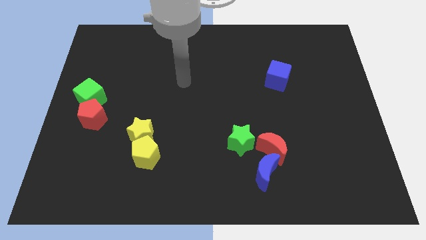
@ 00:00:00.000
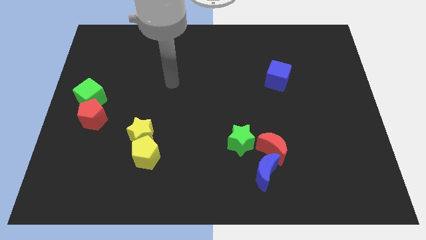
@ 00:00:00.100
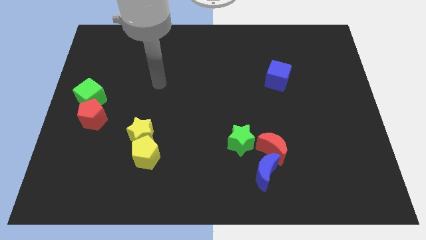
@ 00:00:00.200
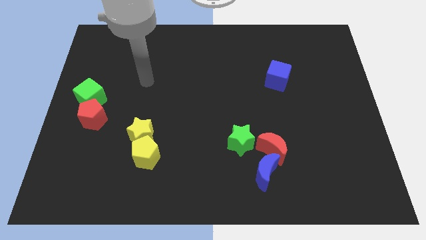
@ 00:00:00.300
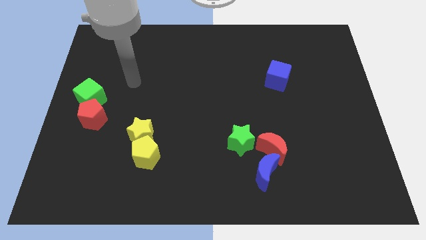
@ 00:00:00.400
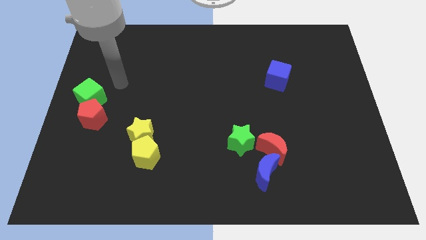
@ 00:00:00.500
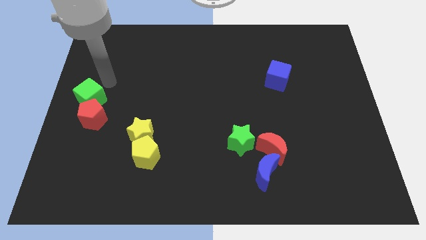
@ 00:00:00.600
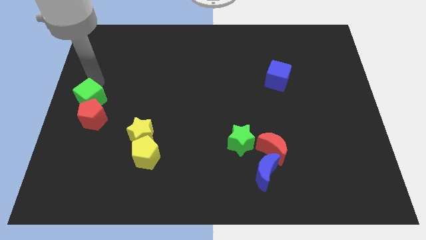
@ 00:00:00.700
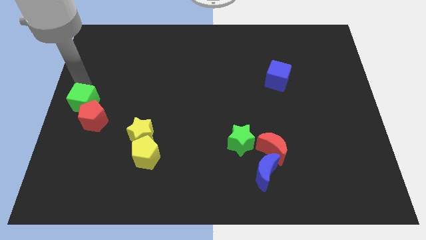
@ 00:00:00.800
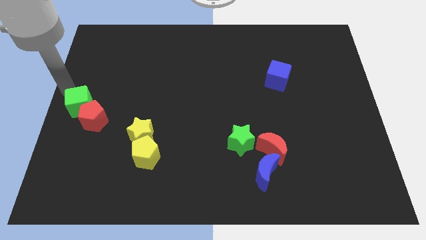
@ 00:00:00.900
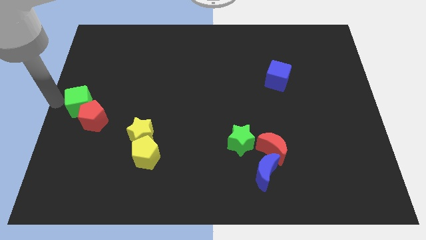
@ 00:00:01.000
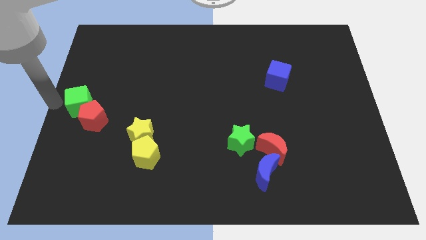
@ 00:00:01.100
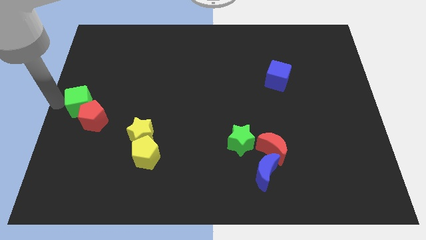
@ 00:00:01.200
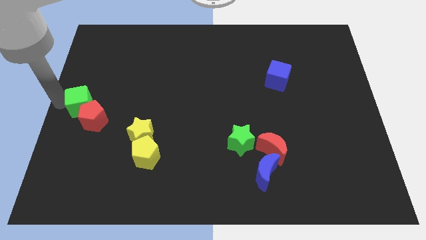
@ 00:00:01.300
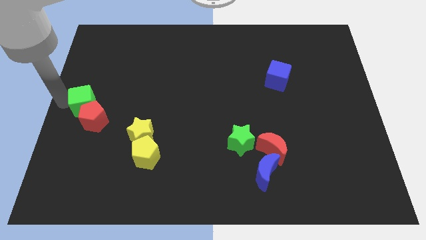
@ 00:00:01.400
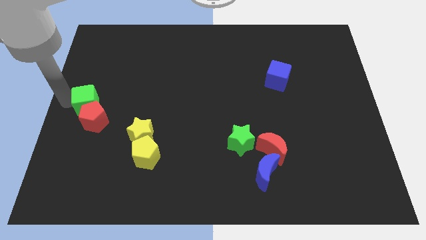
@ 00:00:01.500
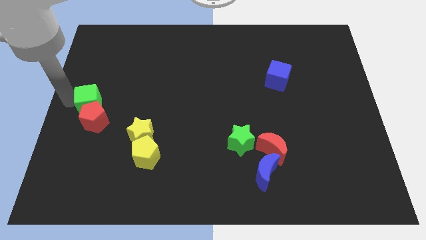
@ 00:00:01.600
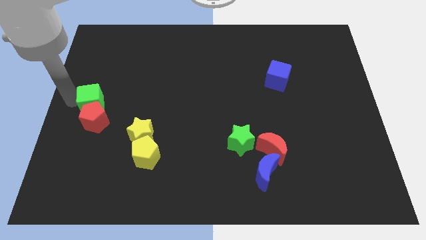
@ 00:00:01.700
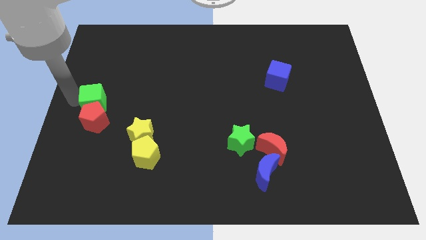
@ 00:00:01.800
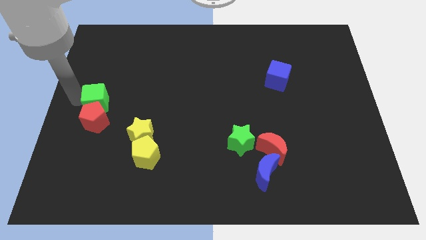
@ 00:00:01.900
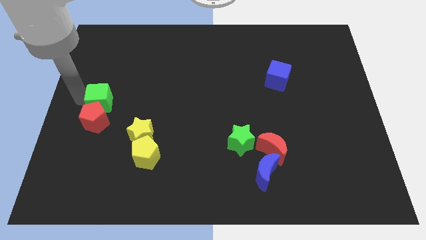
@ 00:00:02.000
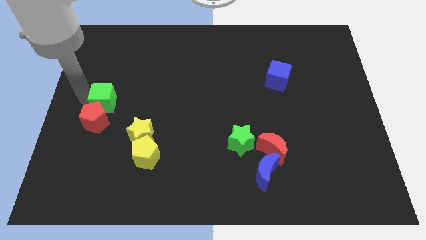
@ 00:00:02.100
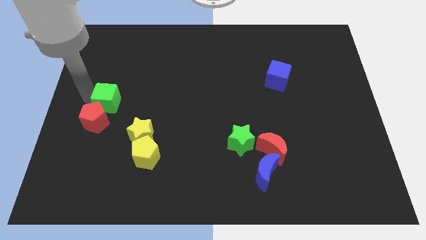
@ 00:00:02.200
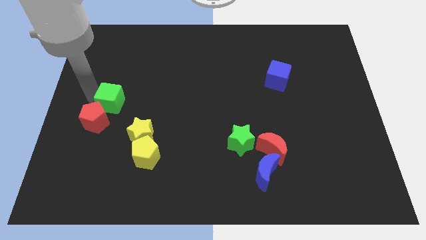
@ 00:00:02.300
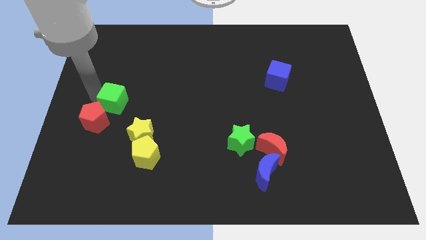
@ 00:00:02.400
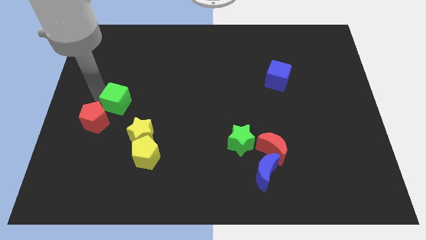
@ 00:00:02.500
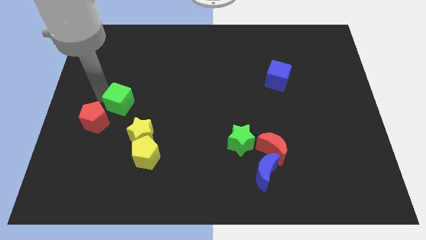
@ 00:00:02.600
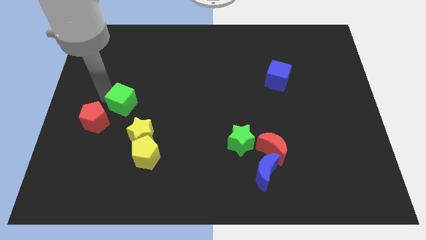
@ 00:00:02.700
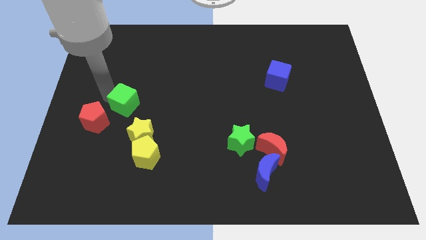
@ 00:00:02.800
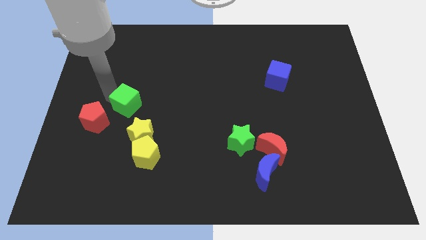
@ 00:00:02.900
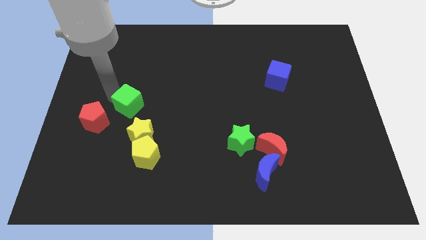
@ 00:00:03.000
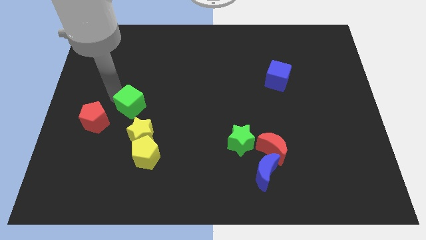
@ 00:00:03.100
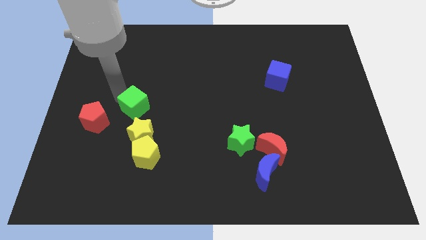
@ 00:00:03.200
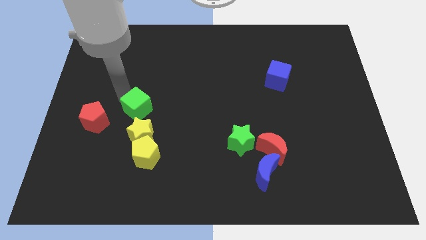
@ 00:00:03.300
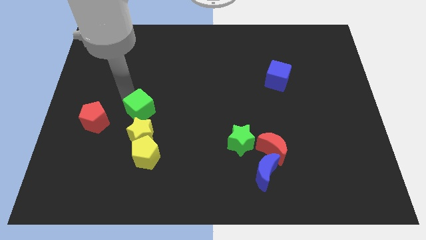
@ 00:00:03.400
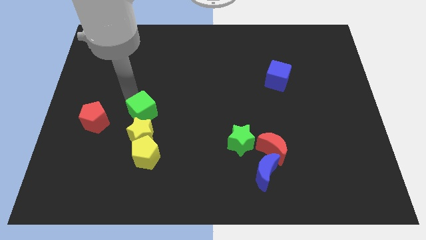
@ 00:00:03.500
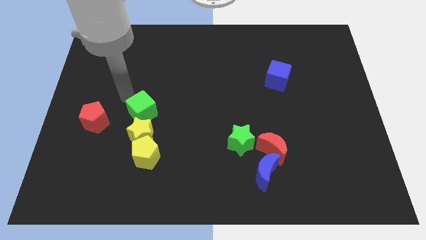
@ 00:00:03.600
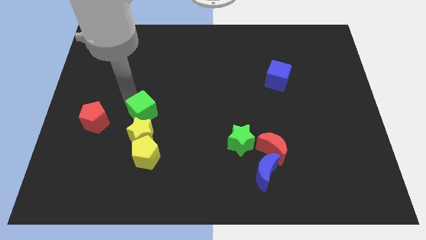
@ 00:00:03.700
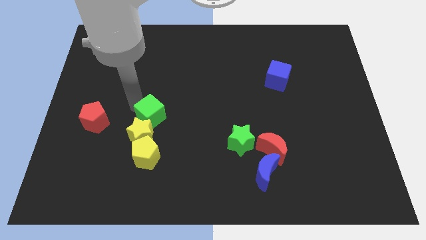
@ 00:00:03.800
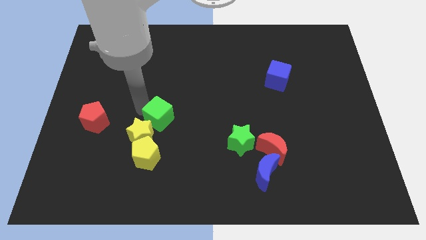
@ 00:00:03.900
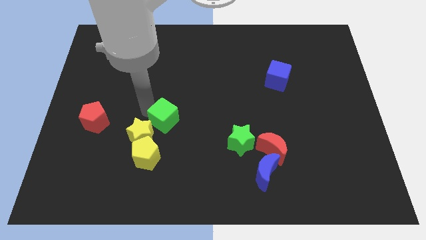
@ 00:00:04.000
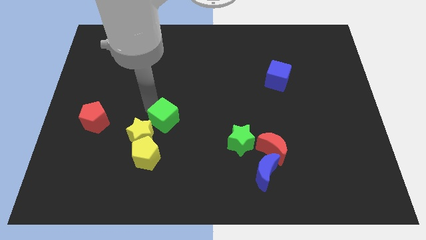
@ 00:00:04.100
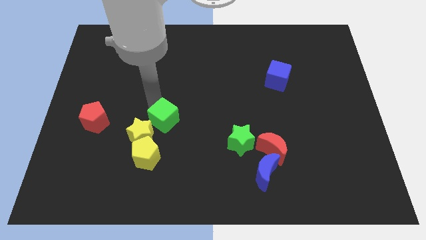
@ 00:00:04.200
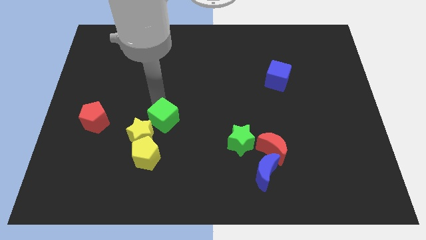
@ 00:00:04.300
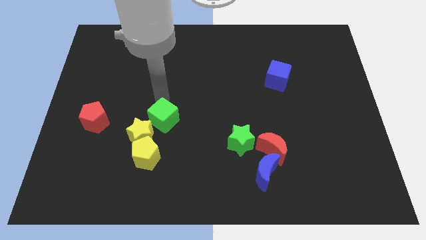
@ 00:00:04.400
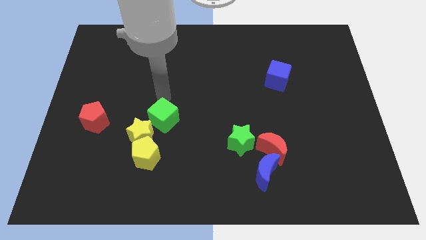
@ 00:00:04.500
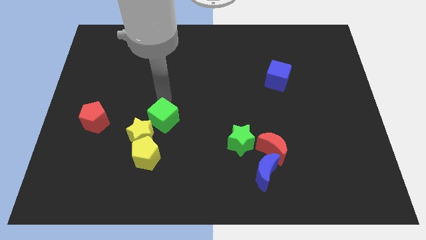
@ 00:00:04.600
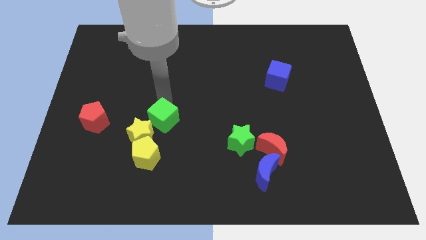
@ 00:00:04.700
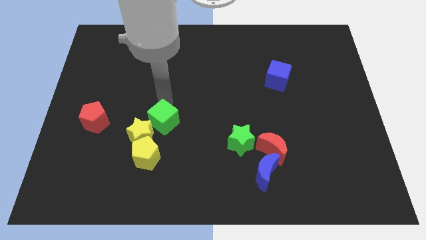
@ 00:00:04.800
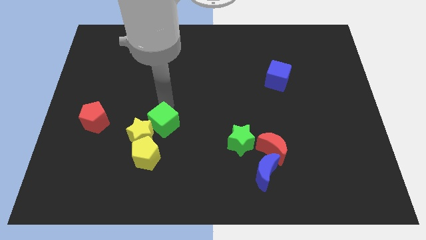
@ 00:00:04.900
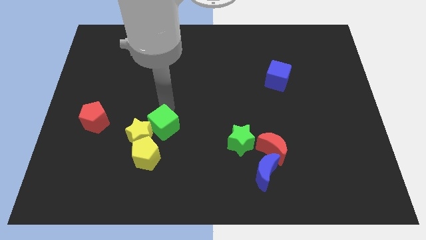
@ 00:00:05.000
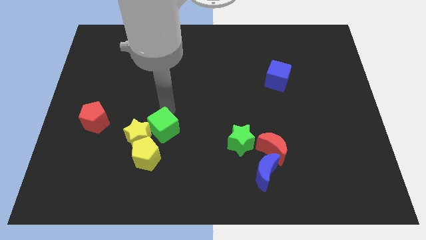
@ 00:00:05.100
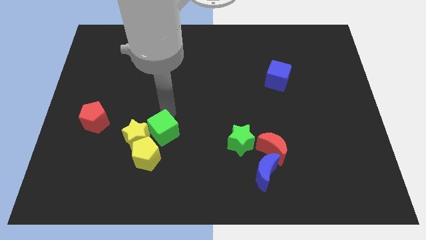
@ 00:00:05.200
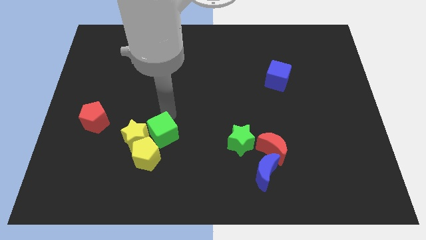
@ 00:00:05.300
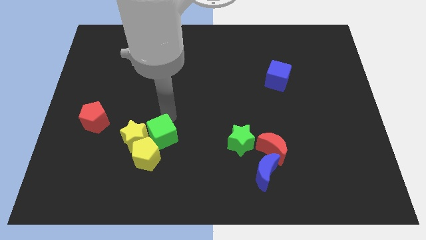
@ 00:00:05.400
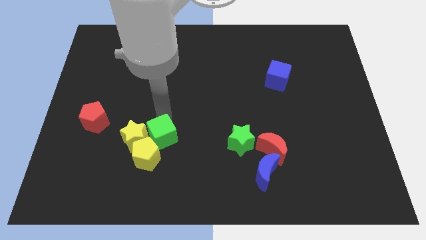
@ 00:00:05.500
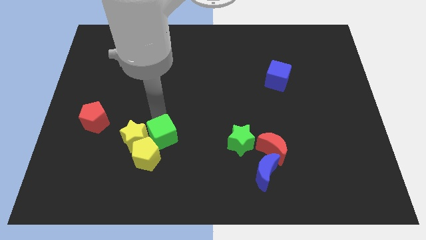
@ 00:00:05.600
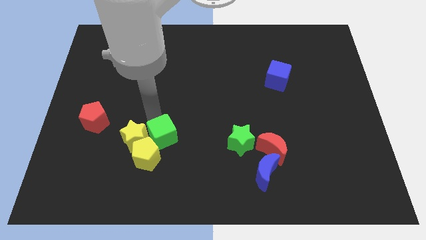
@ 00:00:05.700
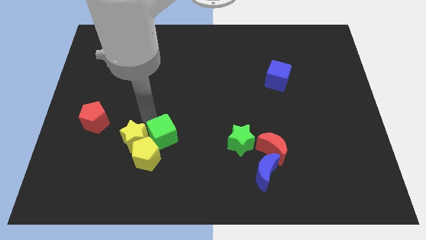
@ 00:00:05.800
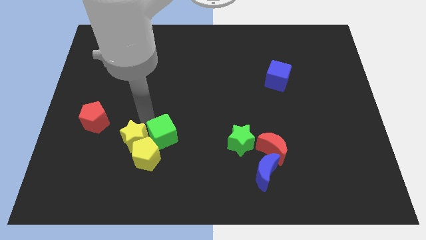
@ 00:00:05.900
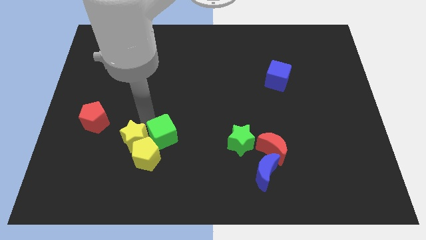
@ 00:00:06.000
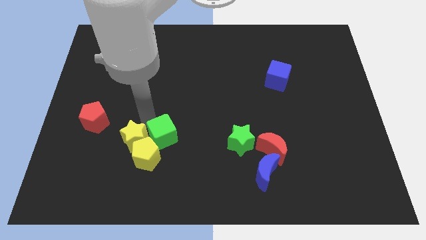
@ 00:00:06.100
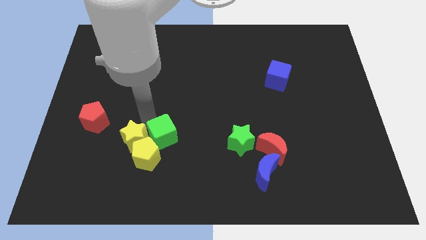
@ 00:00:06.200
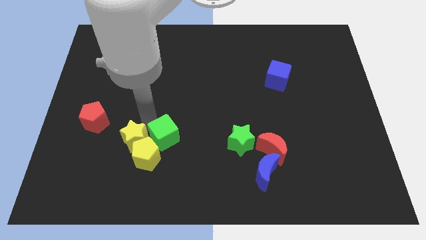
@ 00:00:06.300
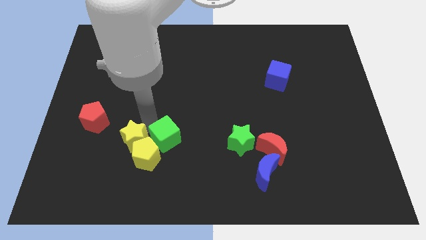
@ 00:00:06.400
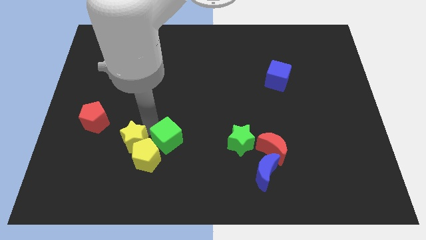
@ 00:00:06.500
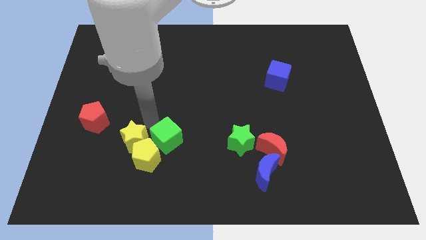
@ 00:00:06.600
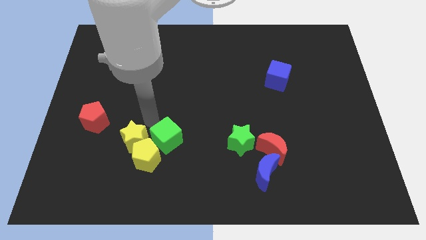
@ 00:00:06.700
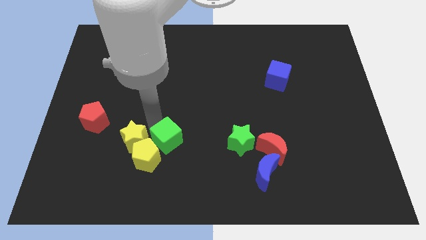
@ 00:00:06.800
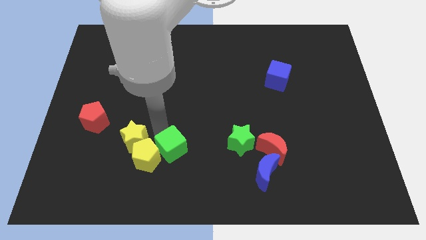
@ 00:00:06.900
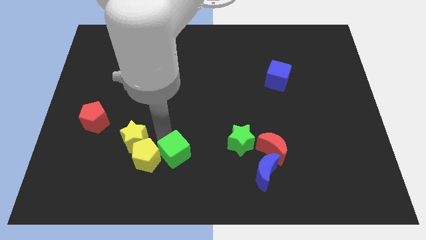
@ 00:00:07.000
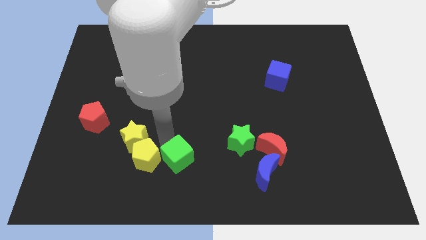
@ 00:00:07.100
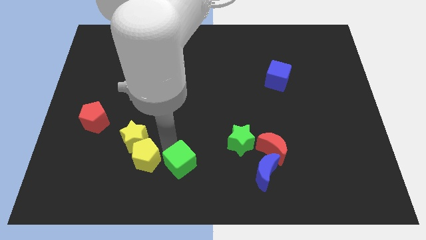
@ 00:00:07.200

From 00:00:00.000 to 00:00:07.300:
push the green cube to the bottom
